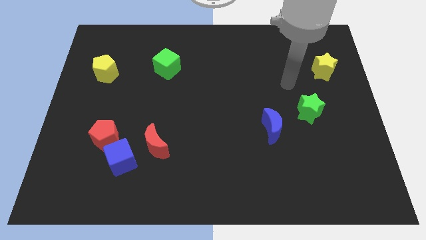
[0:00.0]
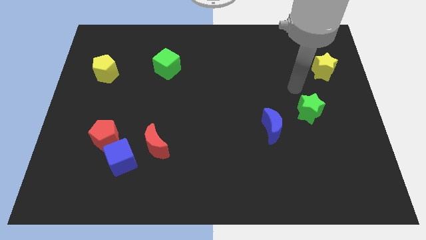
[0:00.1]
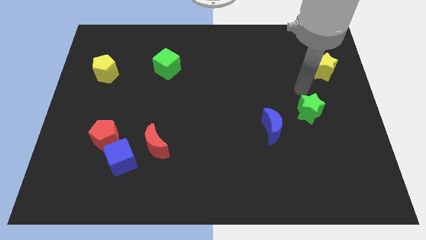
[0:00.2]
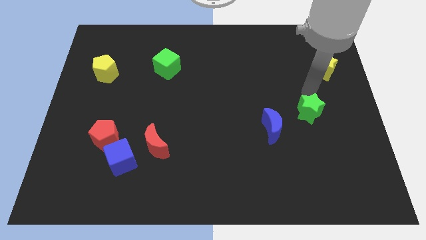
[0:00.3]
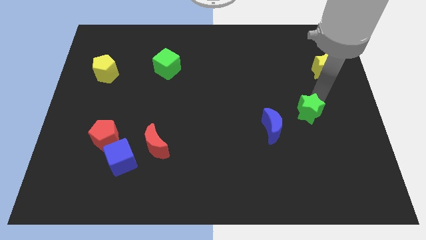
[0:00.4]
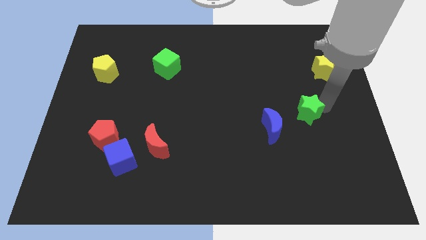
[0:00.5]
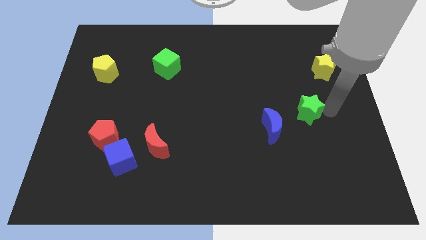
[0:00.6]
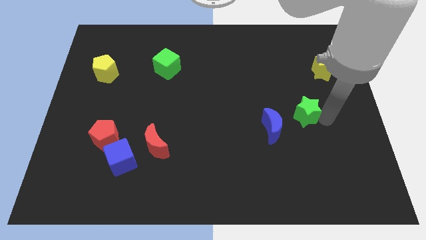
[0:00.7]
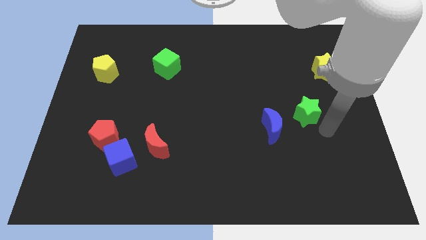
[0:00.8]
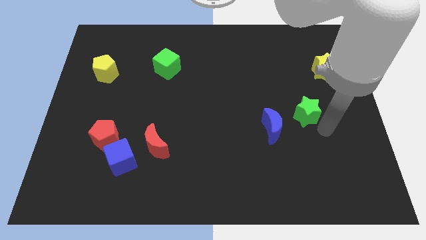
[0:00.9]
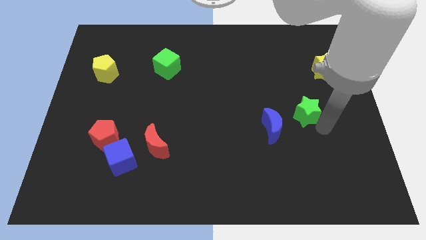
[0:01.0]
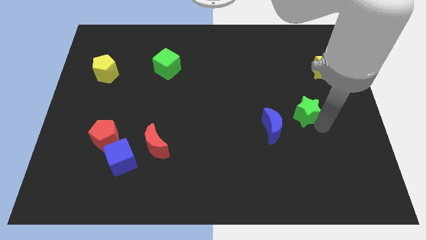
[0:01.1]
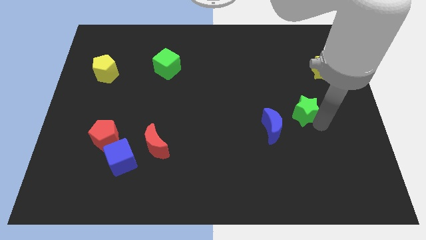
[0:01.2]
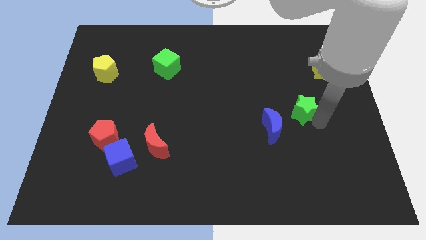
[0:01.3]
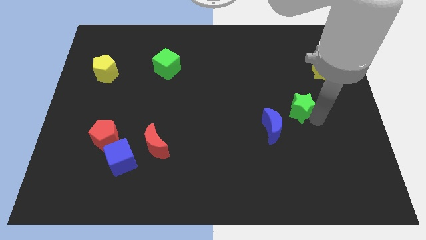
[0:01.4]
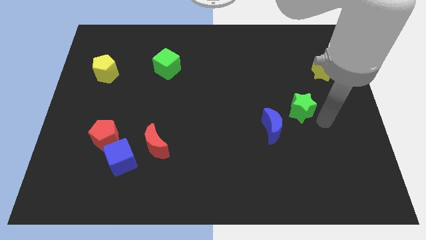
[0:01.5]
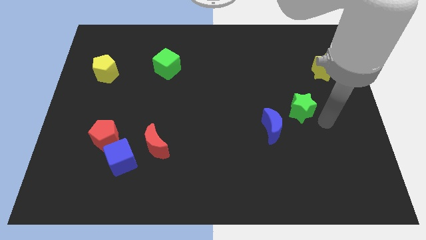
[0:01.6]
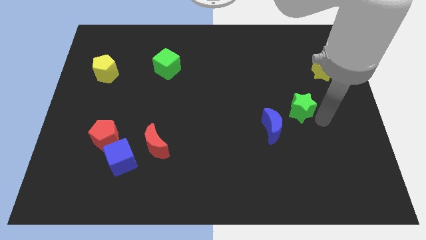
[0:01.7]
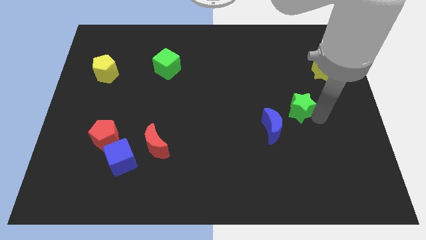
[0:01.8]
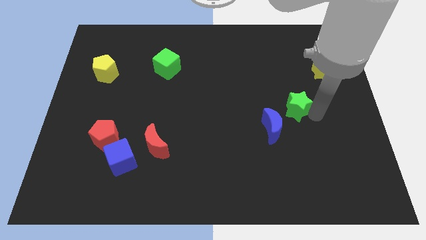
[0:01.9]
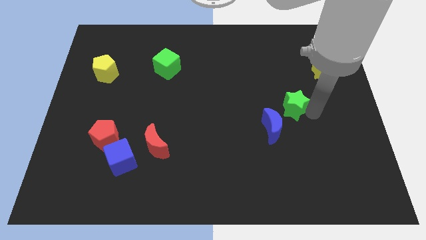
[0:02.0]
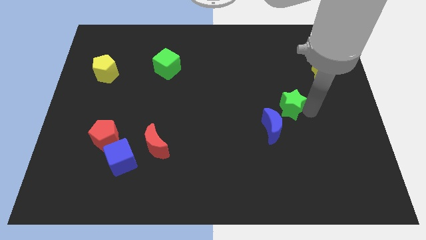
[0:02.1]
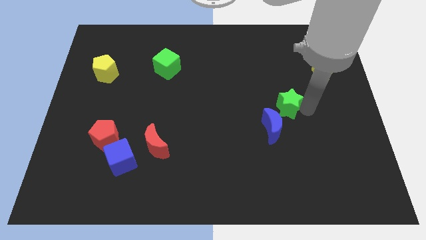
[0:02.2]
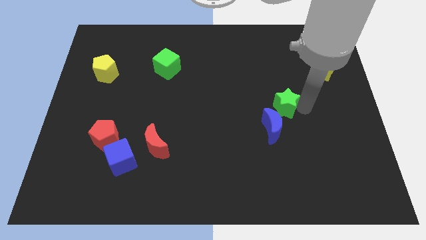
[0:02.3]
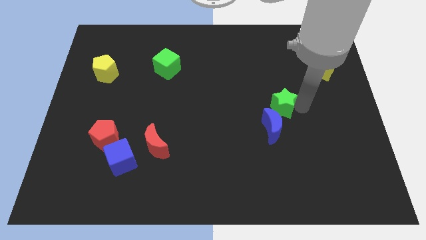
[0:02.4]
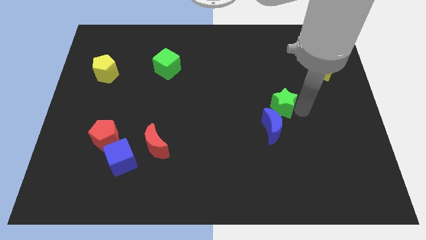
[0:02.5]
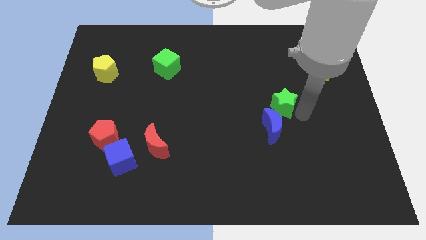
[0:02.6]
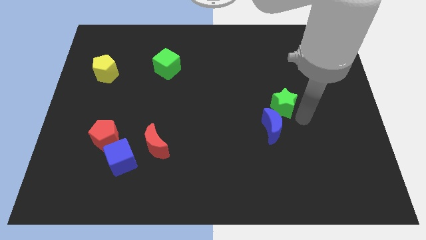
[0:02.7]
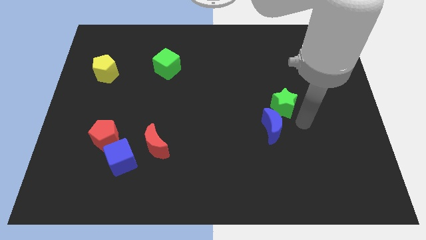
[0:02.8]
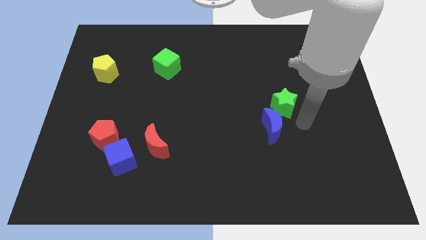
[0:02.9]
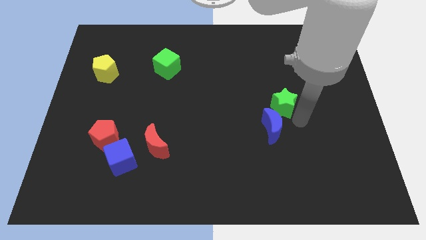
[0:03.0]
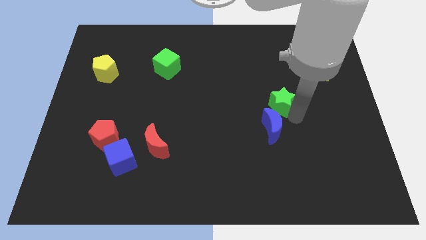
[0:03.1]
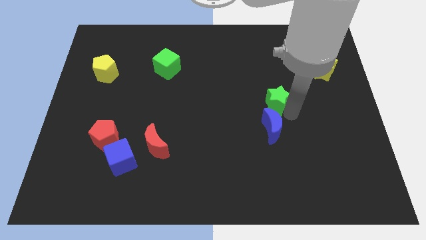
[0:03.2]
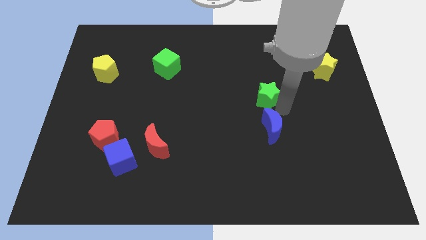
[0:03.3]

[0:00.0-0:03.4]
move the green star a bit upwards and to the left

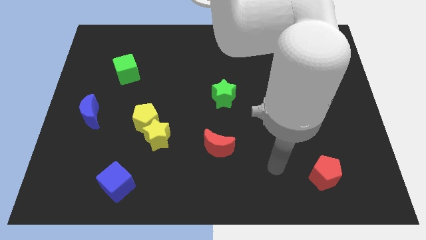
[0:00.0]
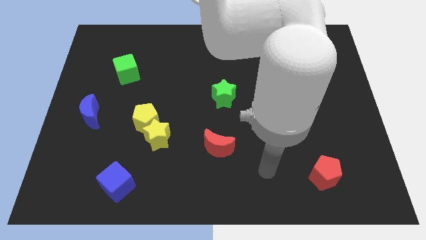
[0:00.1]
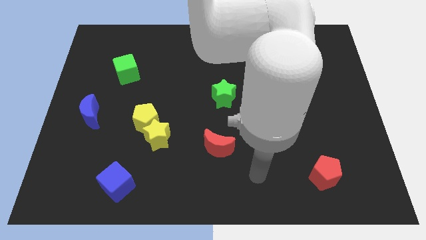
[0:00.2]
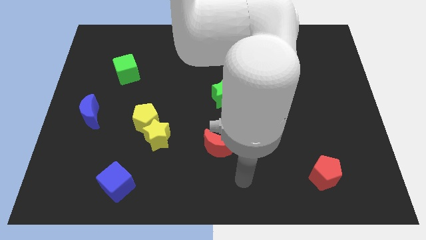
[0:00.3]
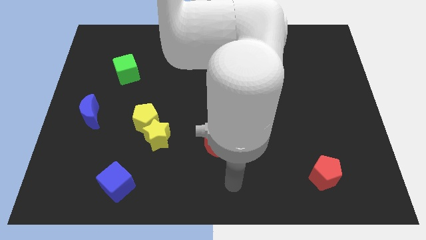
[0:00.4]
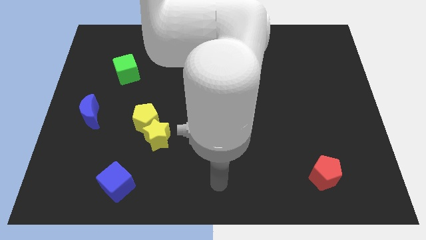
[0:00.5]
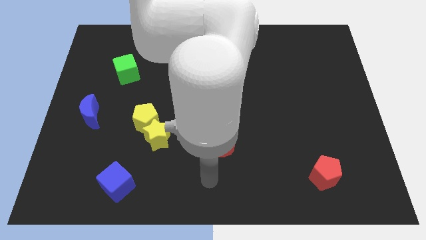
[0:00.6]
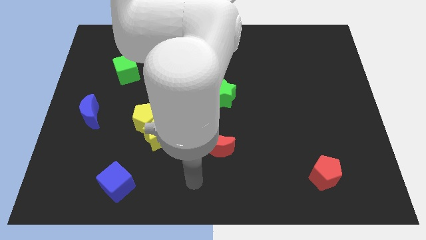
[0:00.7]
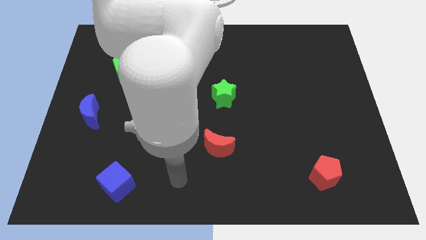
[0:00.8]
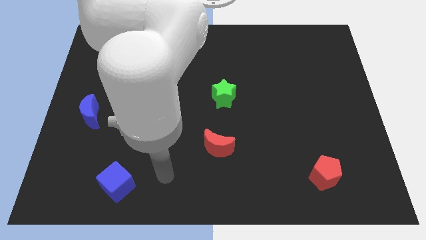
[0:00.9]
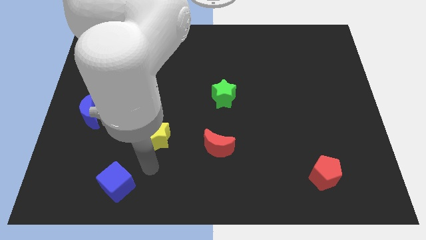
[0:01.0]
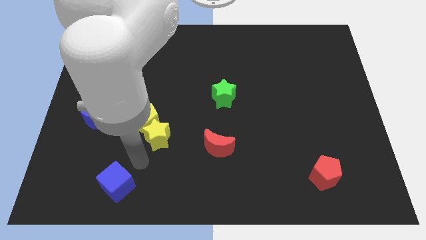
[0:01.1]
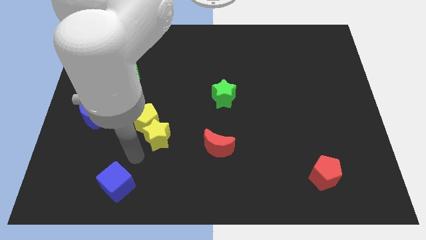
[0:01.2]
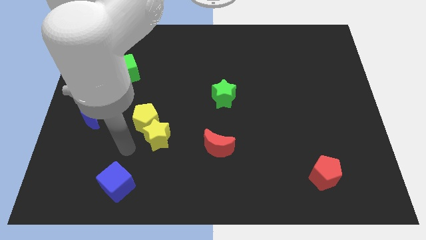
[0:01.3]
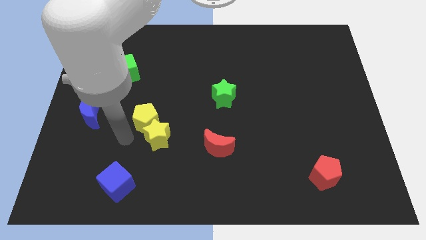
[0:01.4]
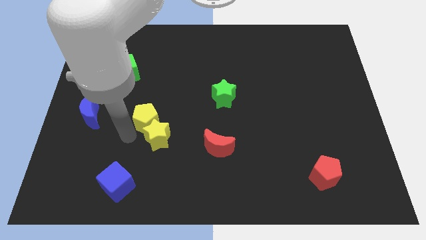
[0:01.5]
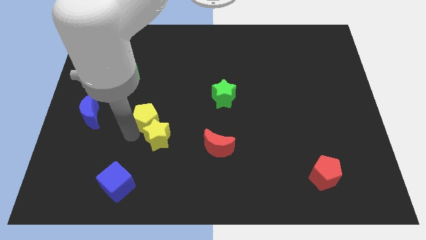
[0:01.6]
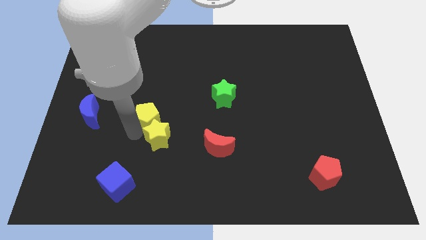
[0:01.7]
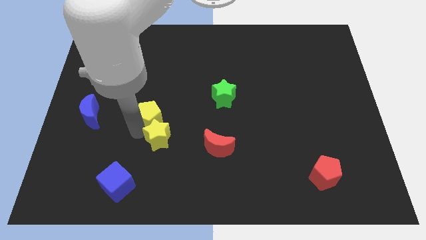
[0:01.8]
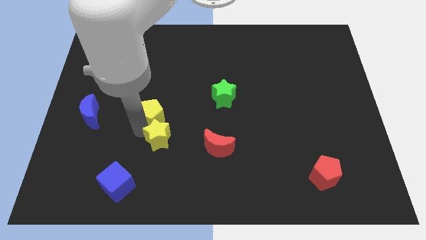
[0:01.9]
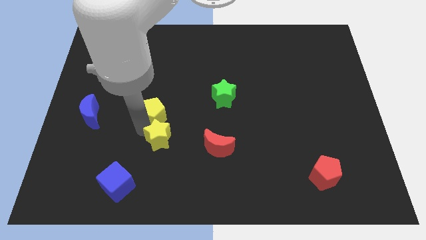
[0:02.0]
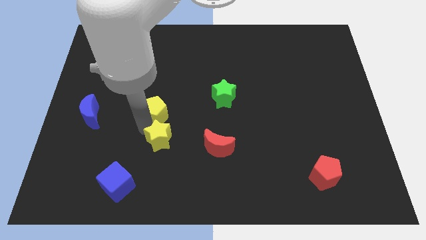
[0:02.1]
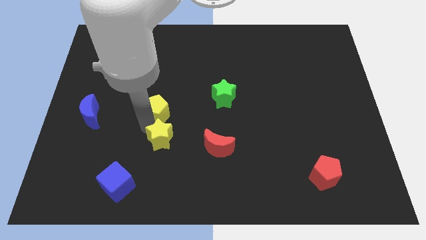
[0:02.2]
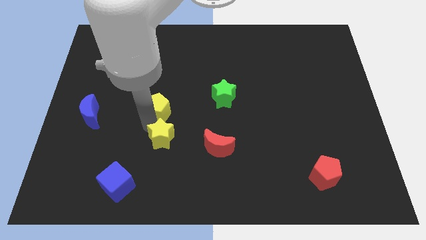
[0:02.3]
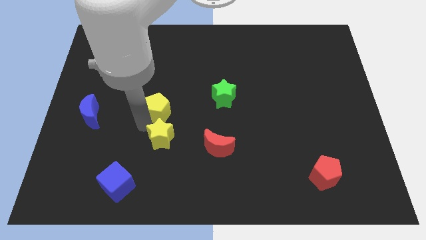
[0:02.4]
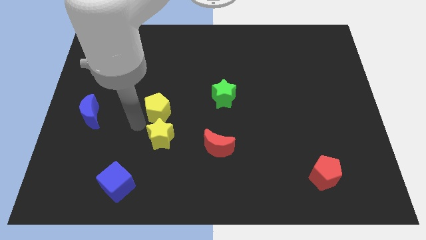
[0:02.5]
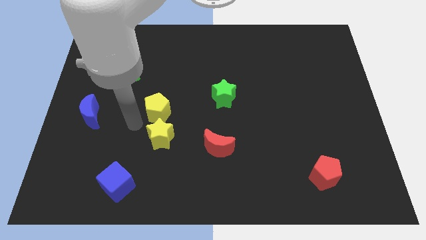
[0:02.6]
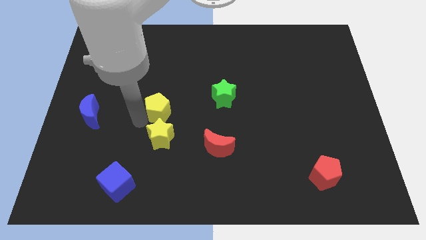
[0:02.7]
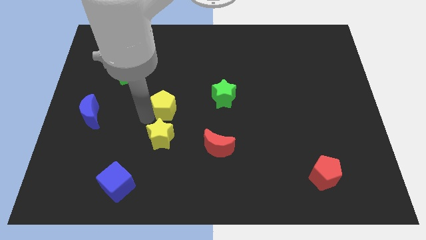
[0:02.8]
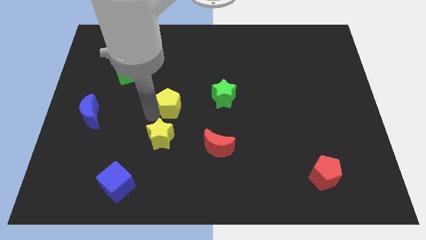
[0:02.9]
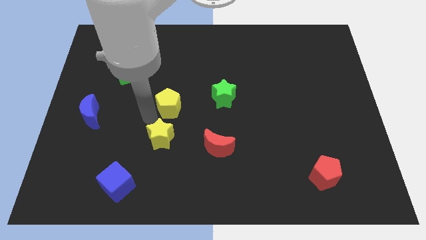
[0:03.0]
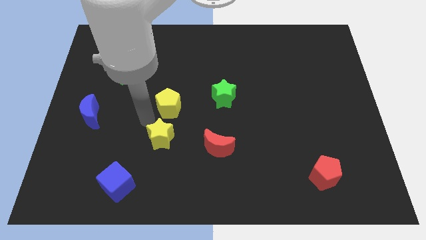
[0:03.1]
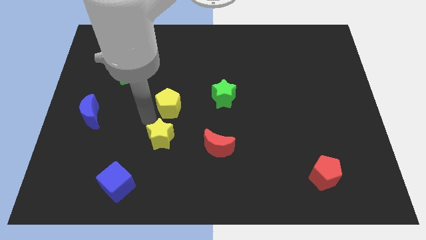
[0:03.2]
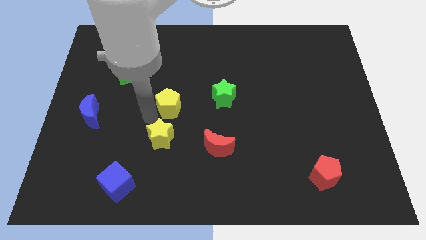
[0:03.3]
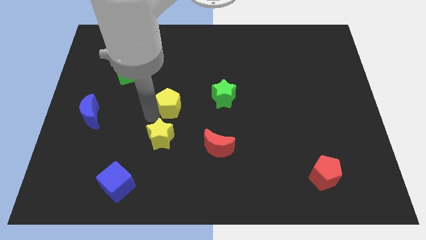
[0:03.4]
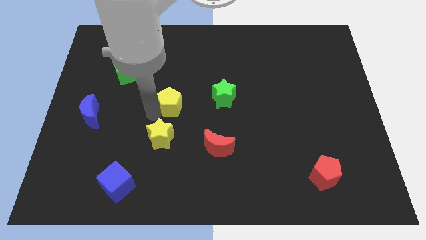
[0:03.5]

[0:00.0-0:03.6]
move the yellow pentagon somewhat up and right diagonally

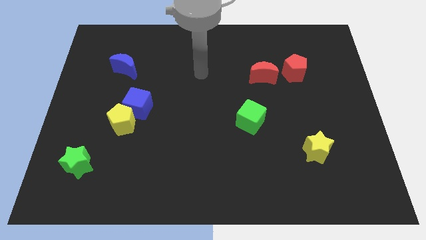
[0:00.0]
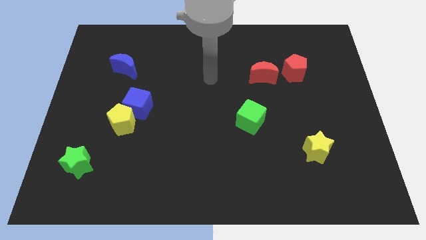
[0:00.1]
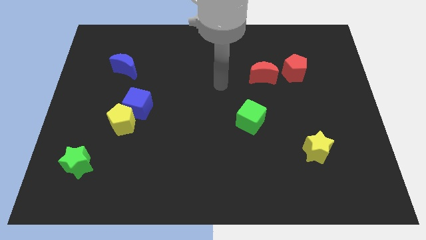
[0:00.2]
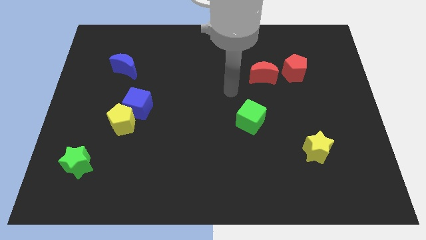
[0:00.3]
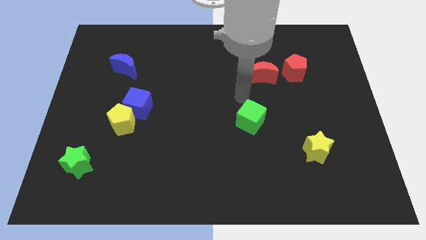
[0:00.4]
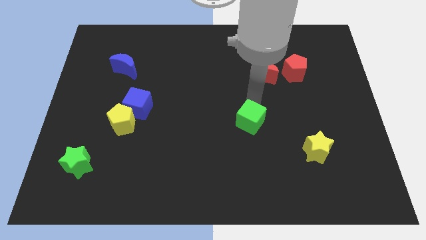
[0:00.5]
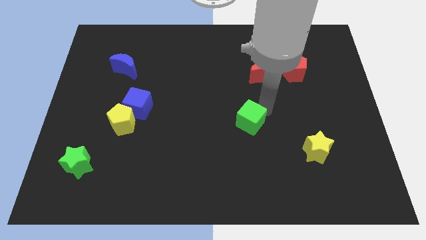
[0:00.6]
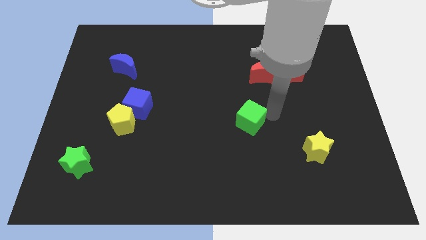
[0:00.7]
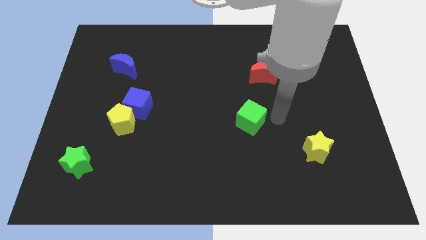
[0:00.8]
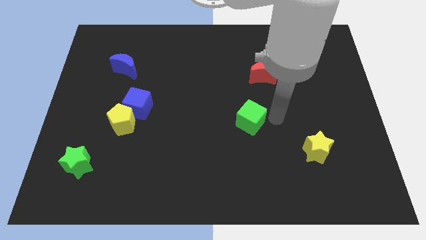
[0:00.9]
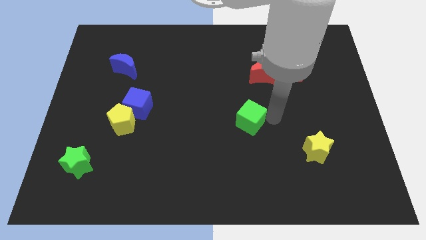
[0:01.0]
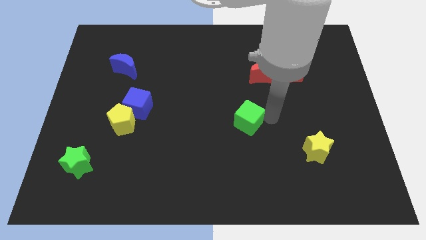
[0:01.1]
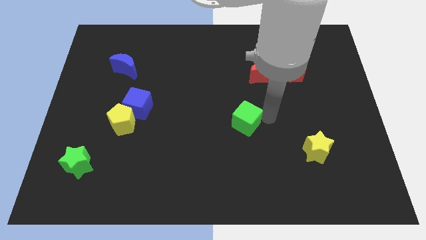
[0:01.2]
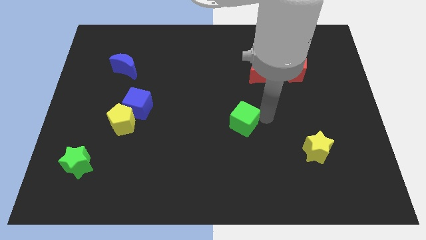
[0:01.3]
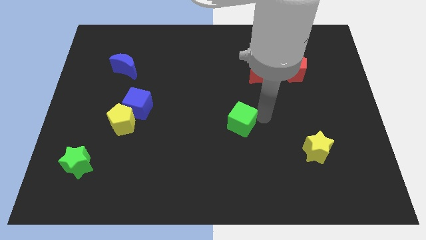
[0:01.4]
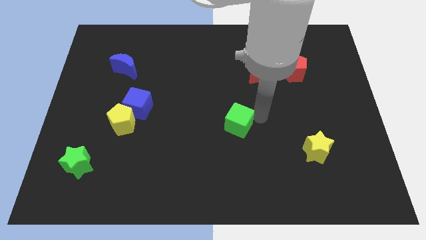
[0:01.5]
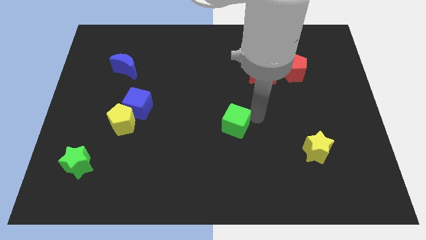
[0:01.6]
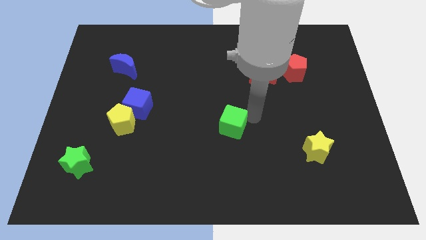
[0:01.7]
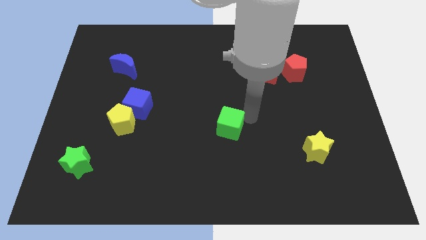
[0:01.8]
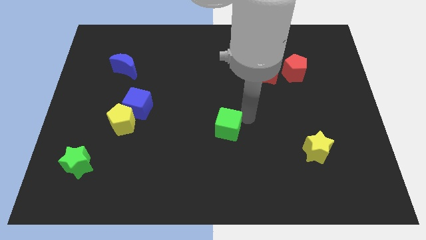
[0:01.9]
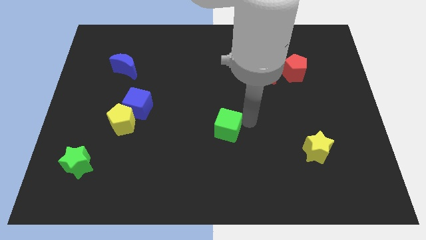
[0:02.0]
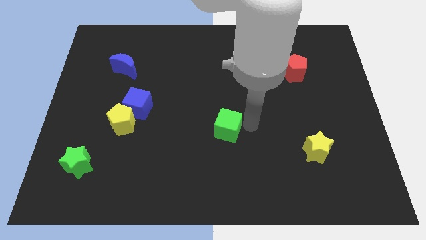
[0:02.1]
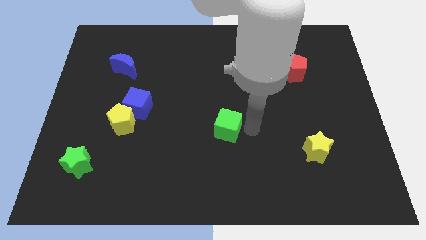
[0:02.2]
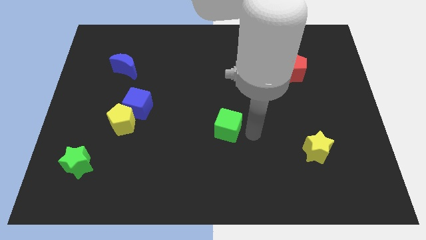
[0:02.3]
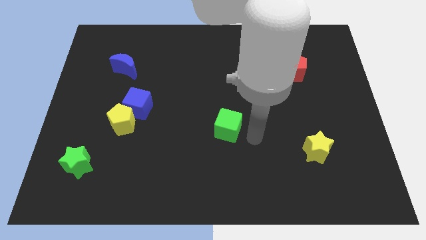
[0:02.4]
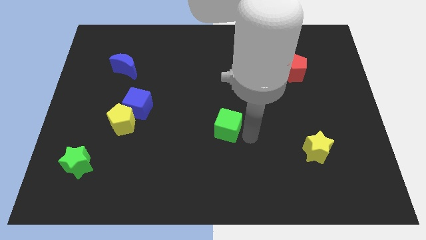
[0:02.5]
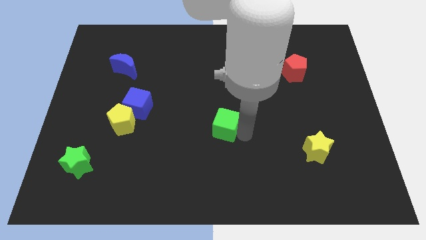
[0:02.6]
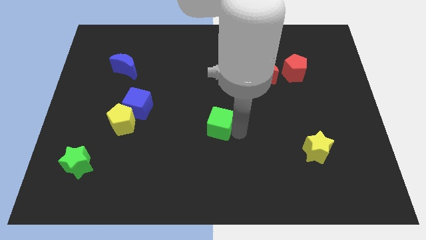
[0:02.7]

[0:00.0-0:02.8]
push the green cube slightly to the left
